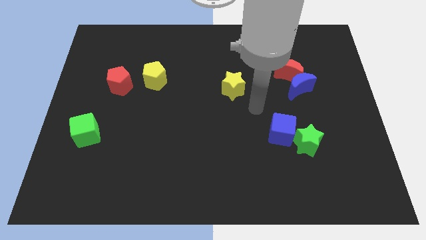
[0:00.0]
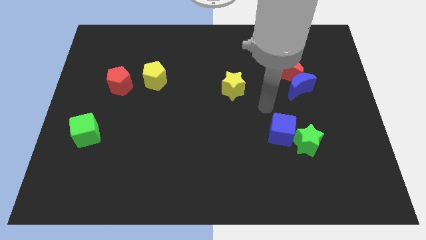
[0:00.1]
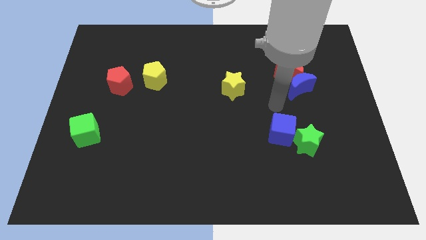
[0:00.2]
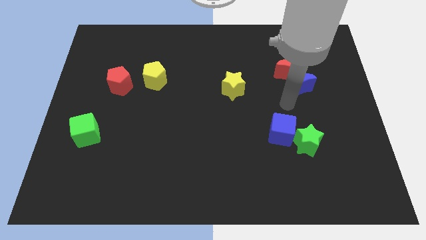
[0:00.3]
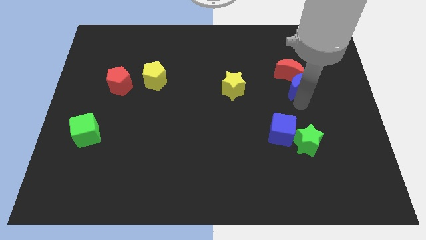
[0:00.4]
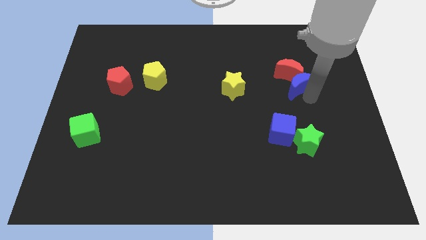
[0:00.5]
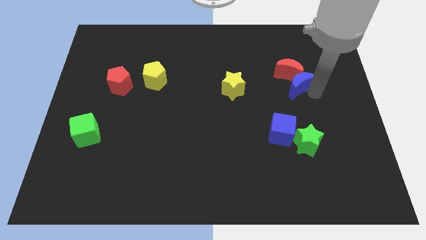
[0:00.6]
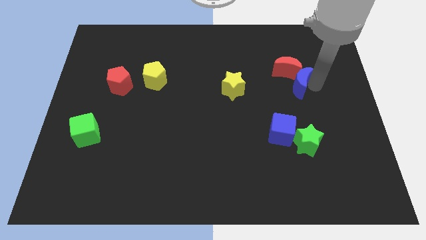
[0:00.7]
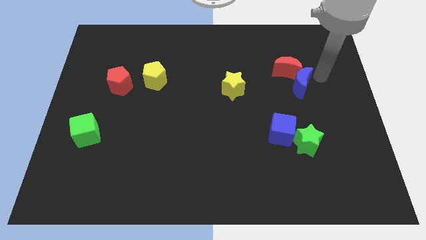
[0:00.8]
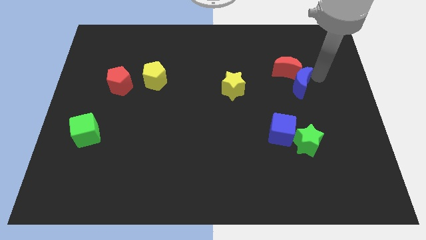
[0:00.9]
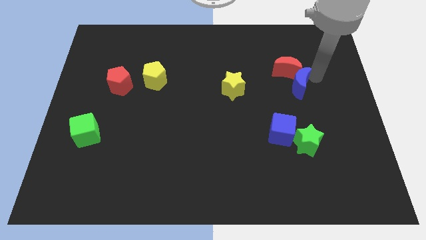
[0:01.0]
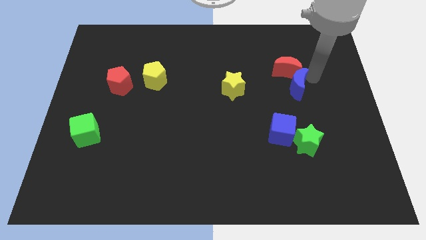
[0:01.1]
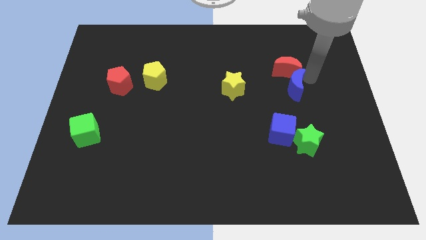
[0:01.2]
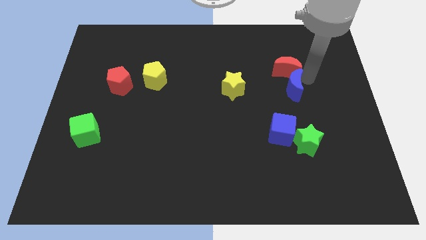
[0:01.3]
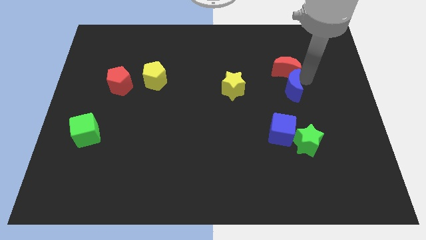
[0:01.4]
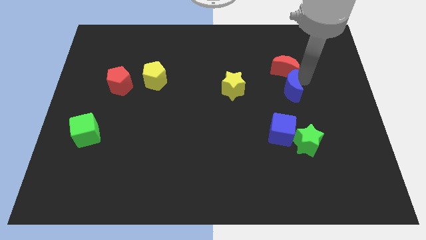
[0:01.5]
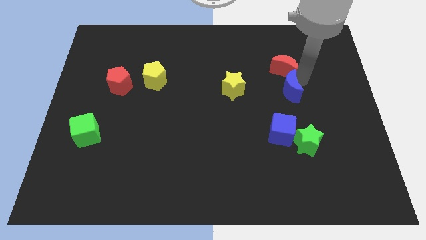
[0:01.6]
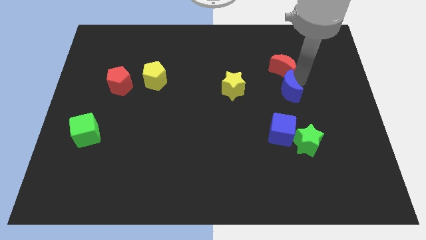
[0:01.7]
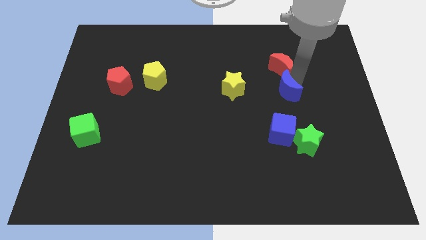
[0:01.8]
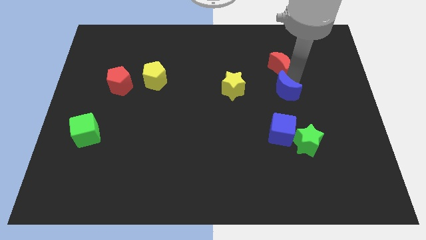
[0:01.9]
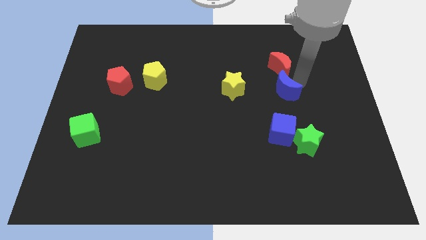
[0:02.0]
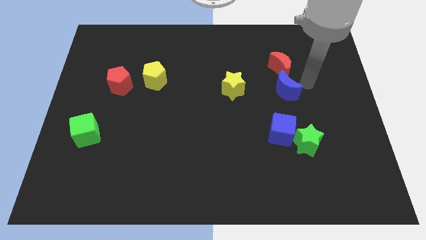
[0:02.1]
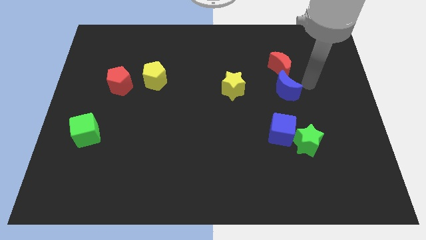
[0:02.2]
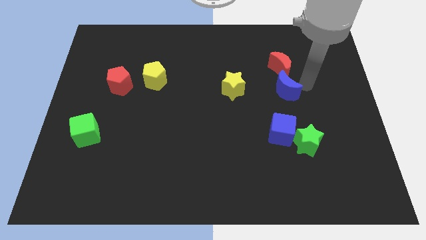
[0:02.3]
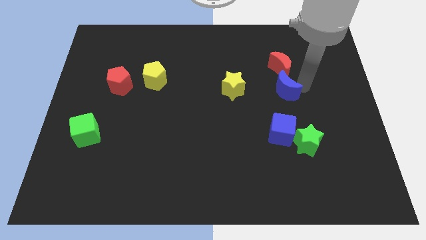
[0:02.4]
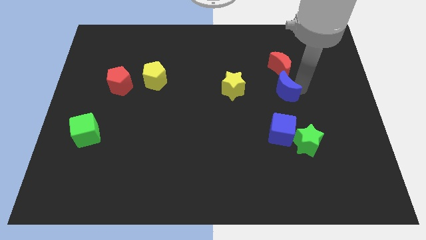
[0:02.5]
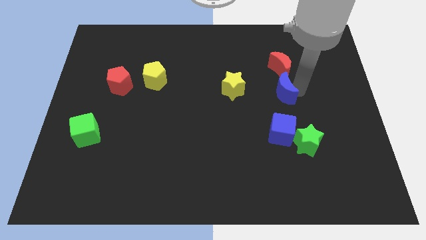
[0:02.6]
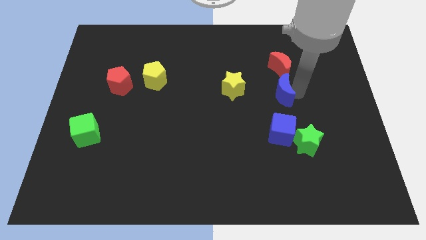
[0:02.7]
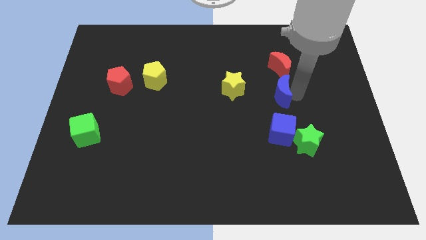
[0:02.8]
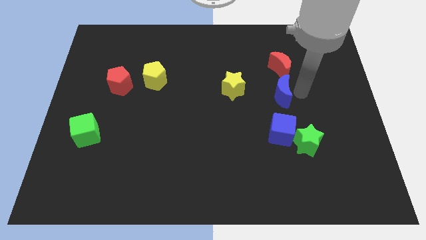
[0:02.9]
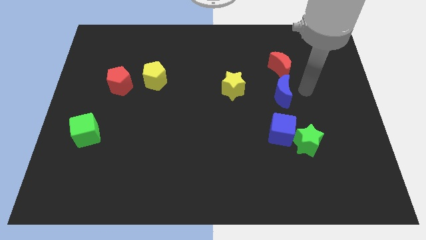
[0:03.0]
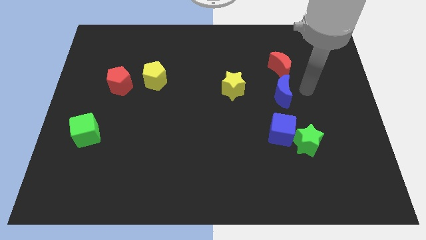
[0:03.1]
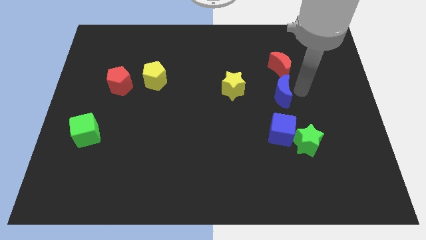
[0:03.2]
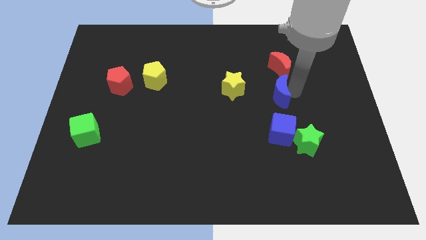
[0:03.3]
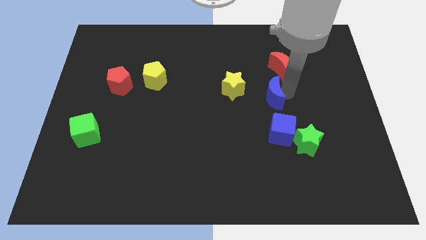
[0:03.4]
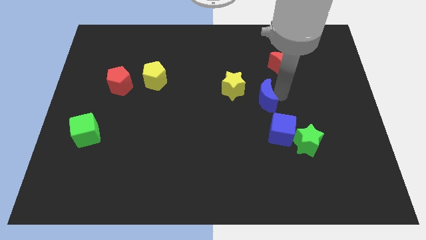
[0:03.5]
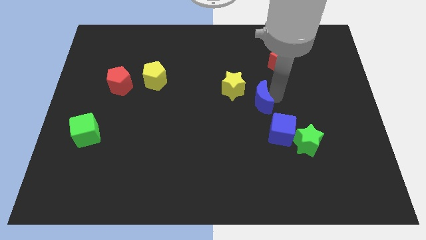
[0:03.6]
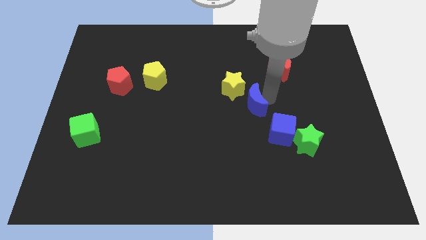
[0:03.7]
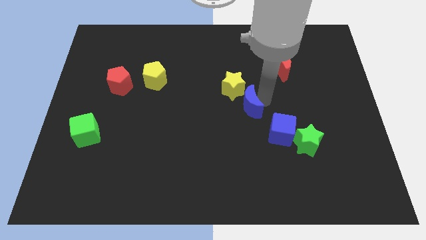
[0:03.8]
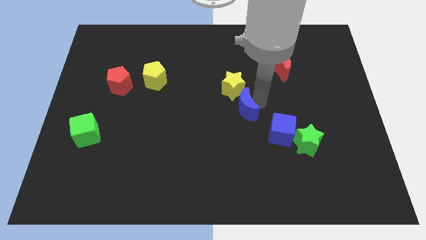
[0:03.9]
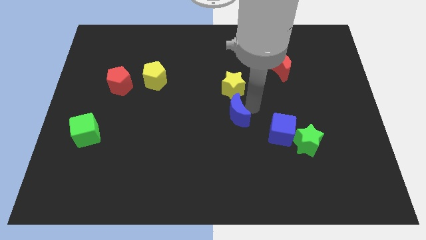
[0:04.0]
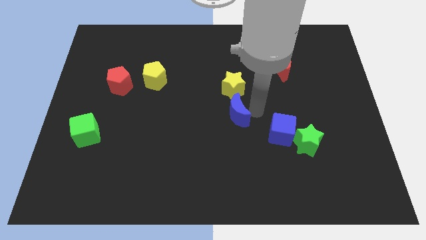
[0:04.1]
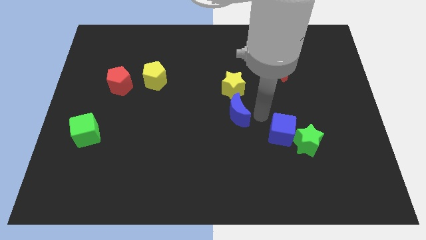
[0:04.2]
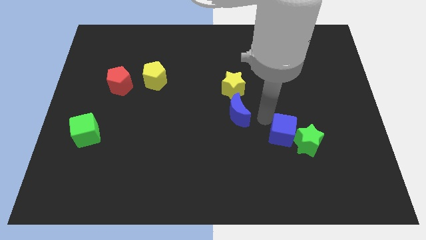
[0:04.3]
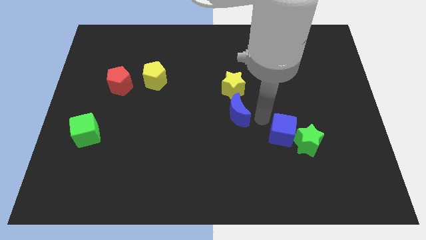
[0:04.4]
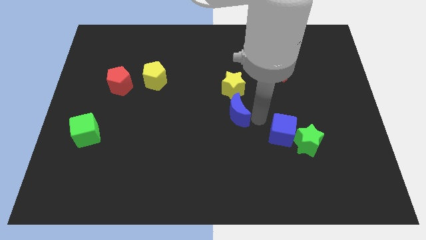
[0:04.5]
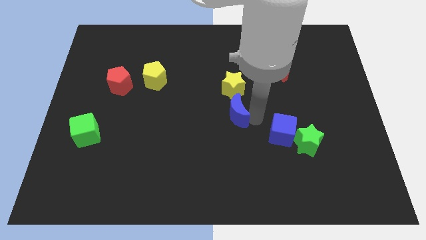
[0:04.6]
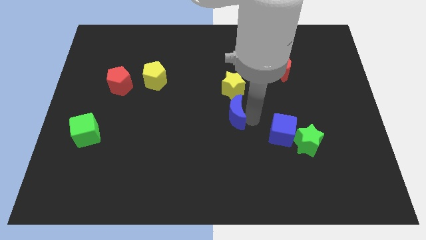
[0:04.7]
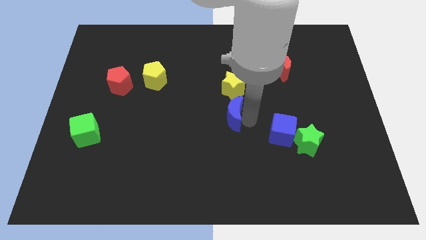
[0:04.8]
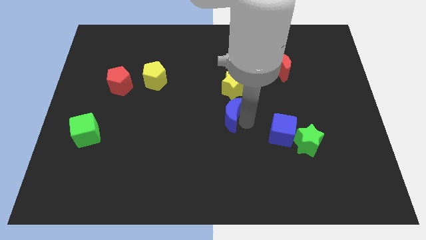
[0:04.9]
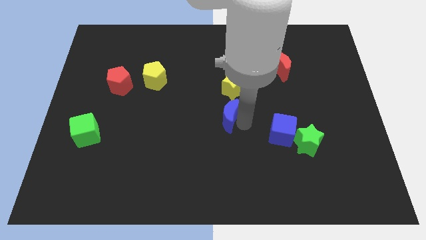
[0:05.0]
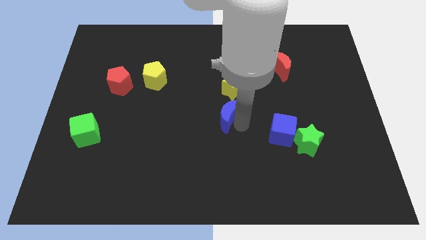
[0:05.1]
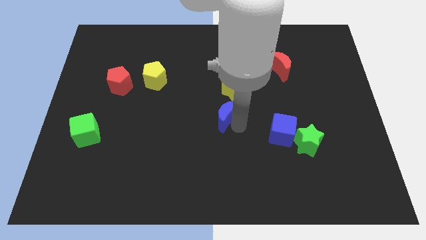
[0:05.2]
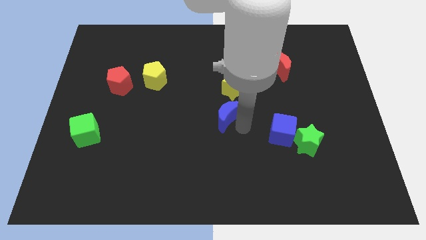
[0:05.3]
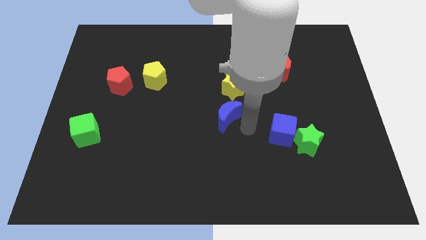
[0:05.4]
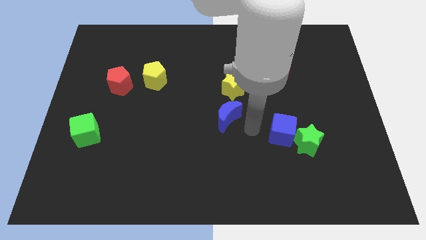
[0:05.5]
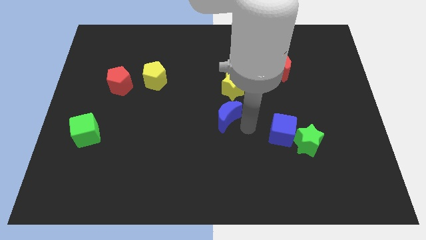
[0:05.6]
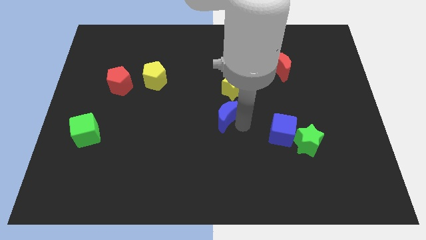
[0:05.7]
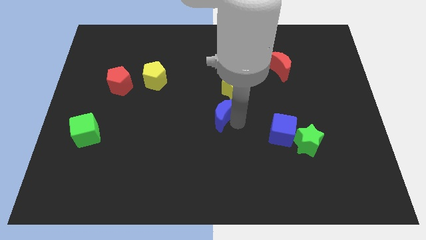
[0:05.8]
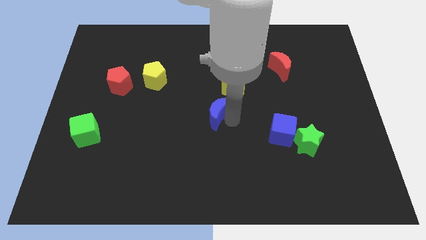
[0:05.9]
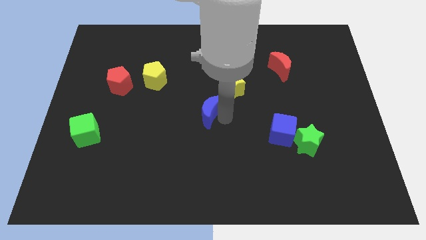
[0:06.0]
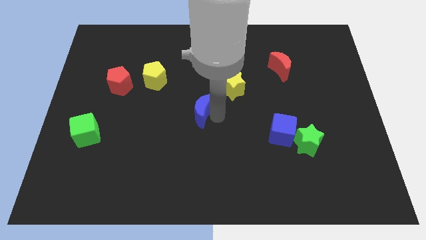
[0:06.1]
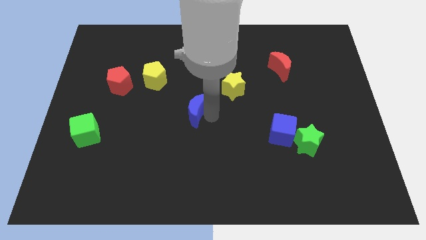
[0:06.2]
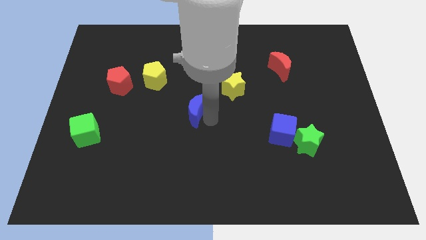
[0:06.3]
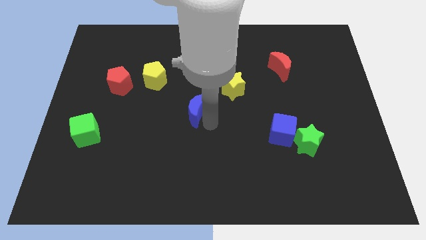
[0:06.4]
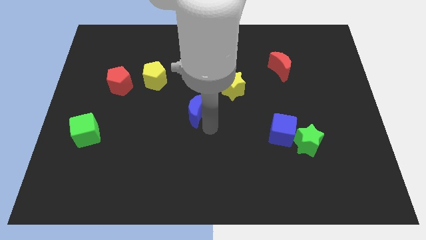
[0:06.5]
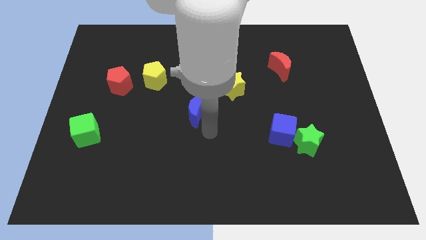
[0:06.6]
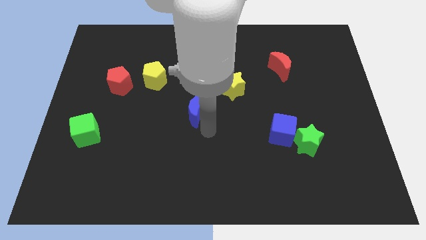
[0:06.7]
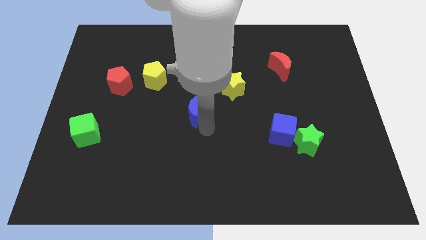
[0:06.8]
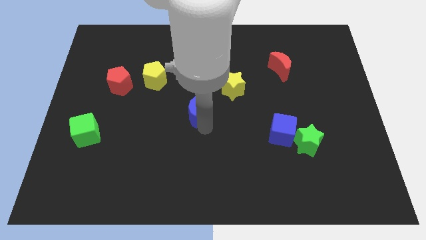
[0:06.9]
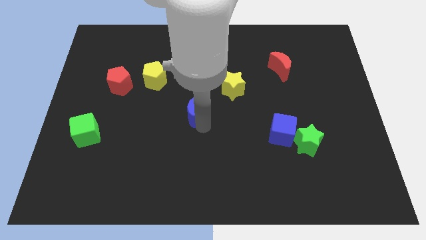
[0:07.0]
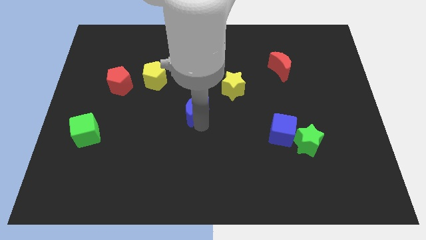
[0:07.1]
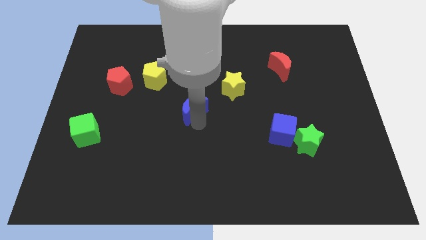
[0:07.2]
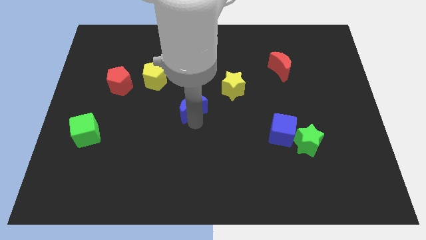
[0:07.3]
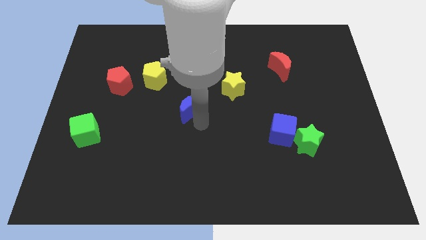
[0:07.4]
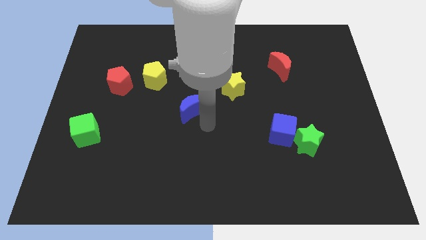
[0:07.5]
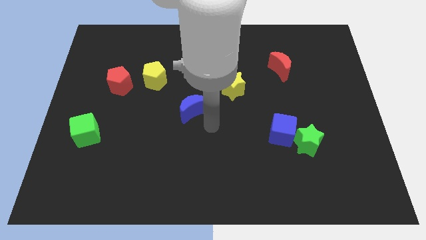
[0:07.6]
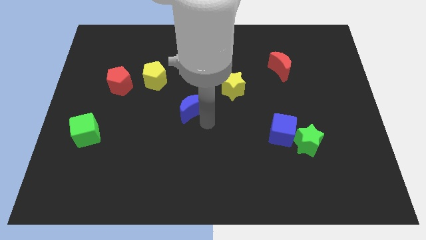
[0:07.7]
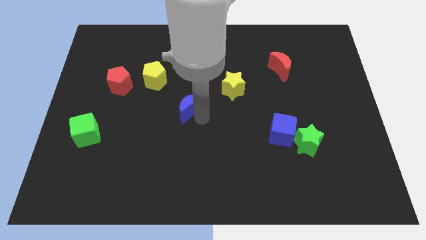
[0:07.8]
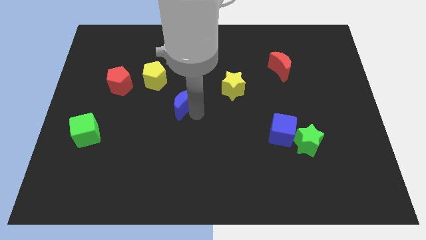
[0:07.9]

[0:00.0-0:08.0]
push the blue moon diagonally down and to the right of the yellow pentagon
